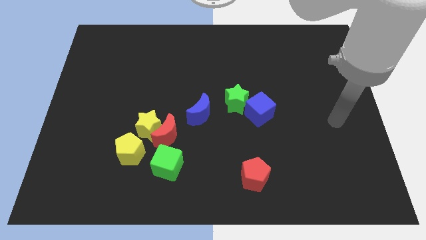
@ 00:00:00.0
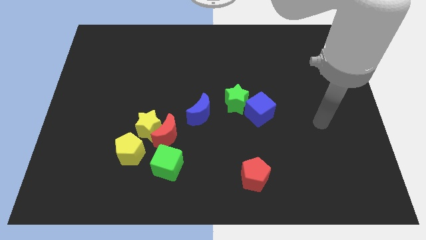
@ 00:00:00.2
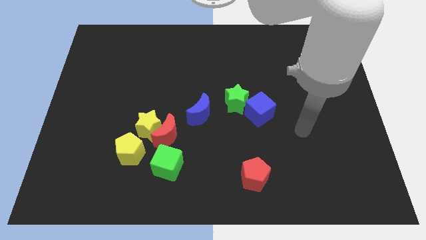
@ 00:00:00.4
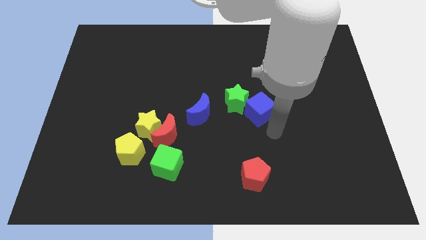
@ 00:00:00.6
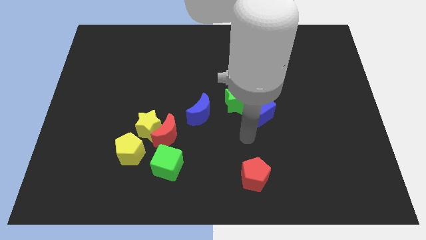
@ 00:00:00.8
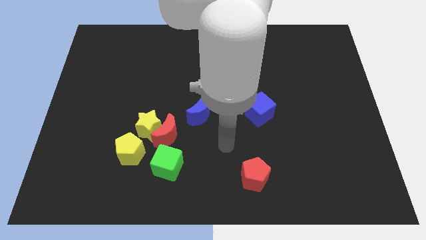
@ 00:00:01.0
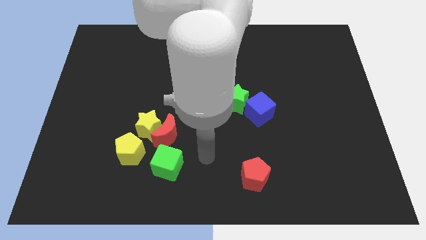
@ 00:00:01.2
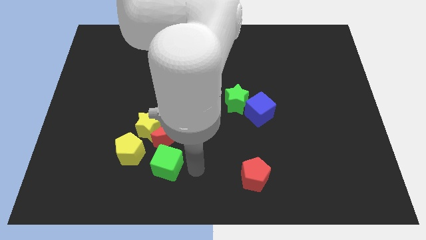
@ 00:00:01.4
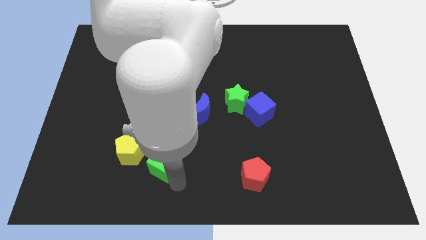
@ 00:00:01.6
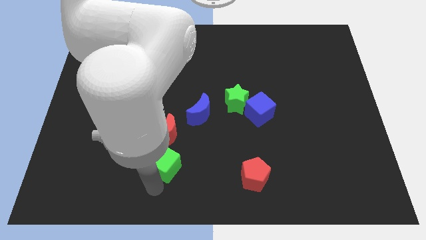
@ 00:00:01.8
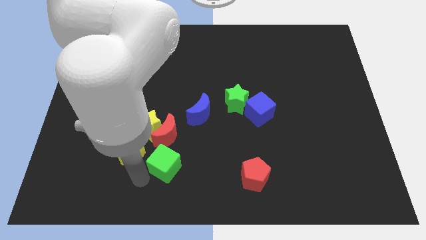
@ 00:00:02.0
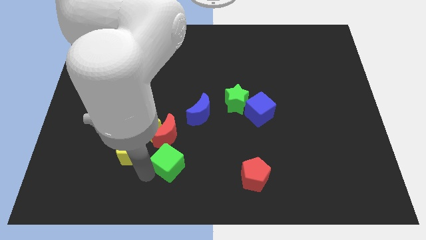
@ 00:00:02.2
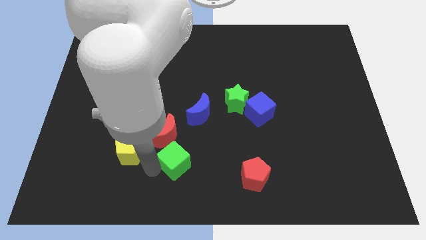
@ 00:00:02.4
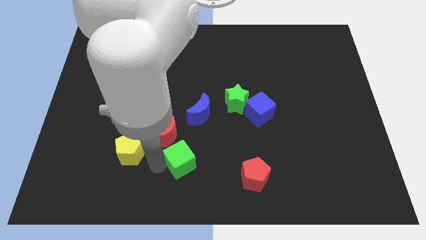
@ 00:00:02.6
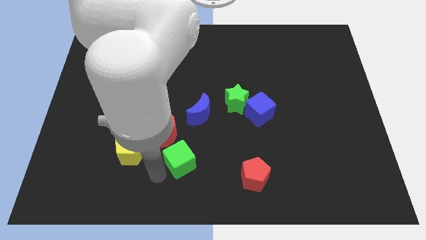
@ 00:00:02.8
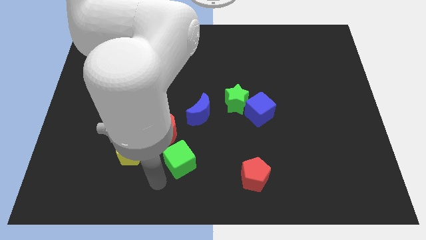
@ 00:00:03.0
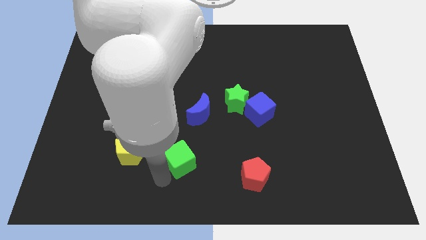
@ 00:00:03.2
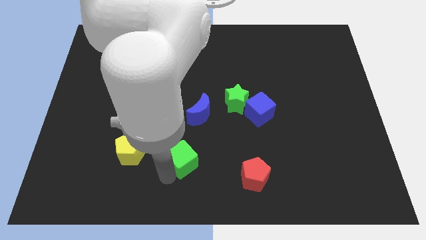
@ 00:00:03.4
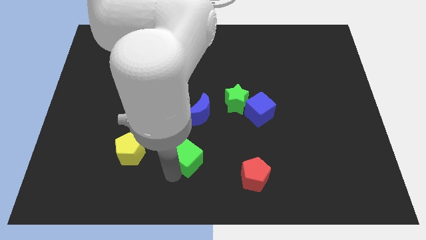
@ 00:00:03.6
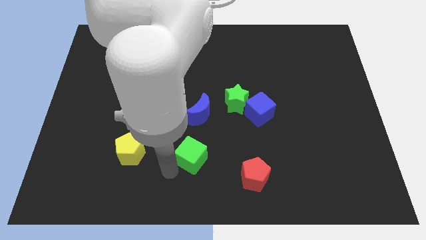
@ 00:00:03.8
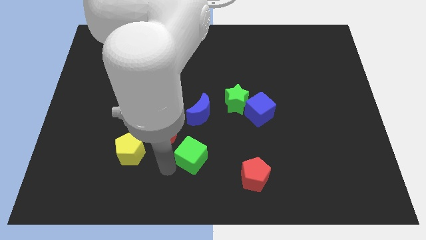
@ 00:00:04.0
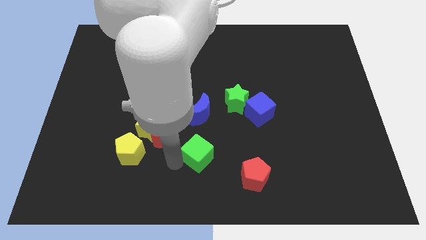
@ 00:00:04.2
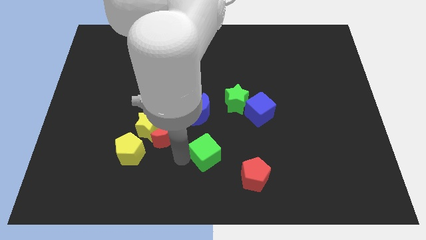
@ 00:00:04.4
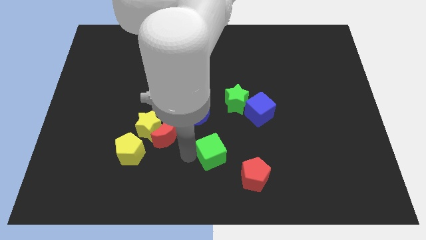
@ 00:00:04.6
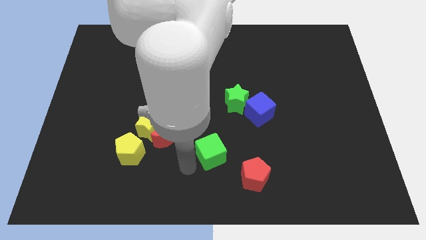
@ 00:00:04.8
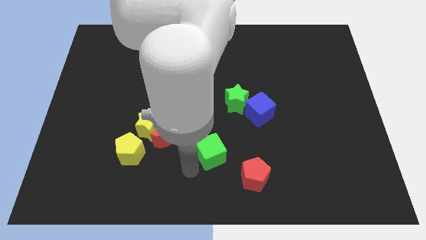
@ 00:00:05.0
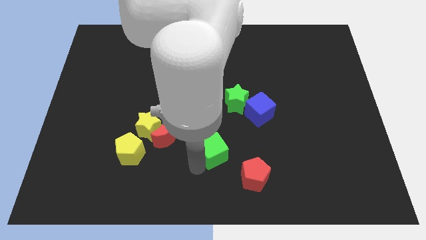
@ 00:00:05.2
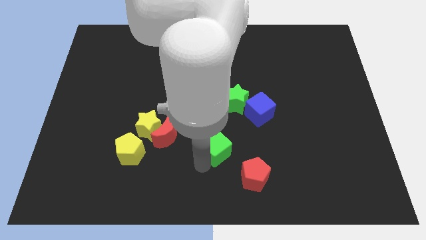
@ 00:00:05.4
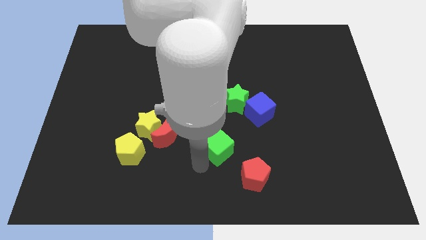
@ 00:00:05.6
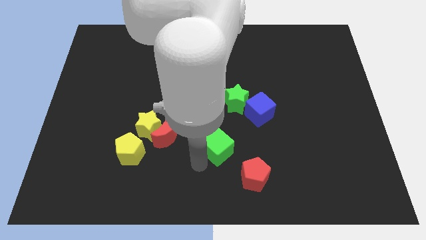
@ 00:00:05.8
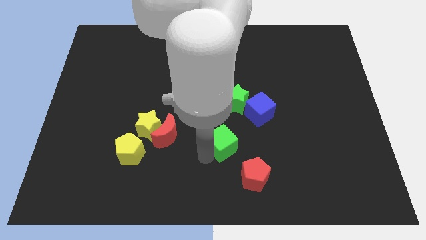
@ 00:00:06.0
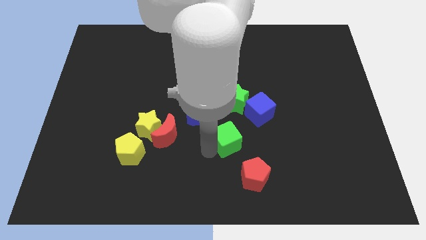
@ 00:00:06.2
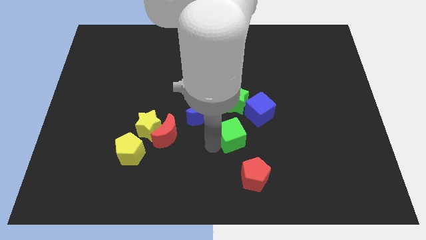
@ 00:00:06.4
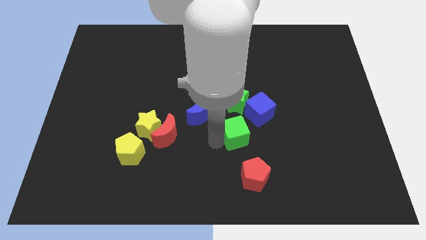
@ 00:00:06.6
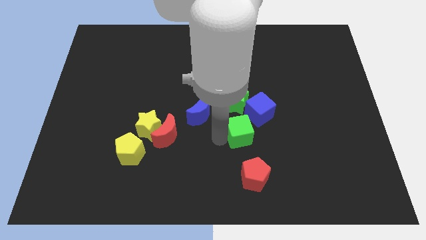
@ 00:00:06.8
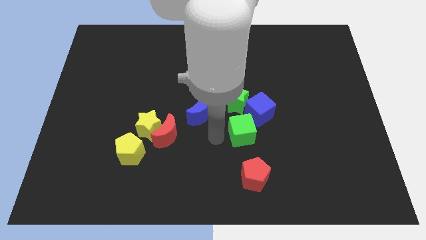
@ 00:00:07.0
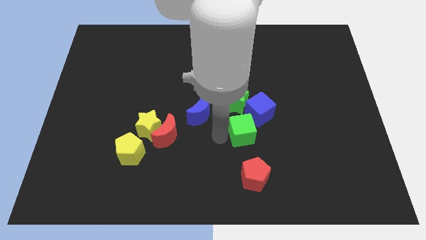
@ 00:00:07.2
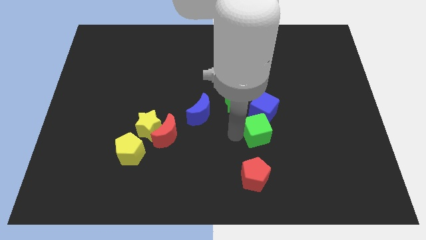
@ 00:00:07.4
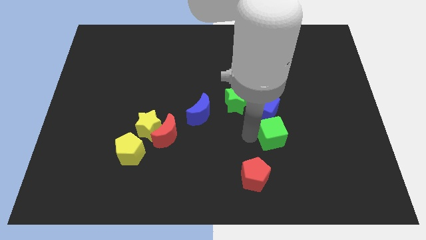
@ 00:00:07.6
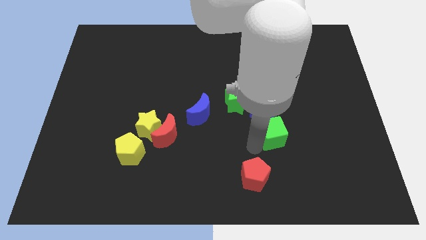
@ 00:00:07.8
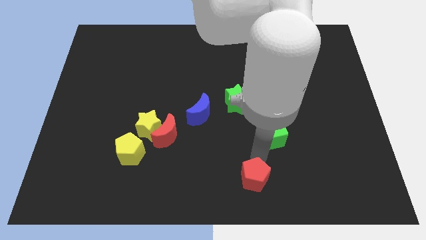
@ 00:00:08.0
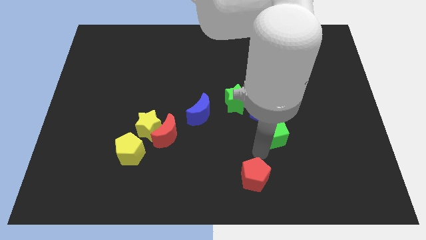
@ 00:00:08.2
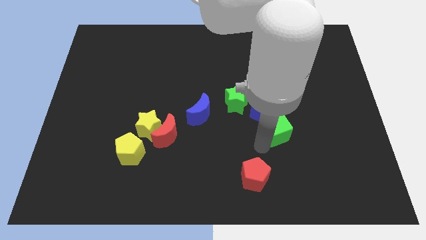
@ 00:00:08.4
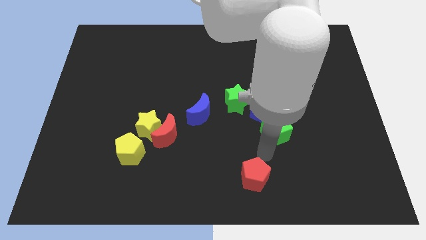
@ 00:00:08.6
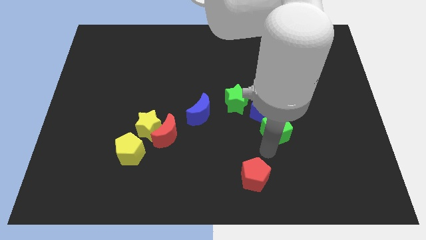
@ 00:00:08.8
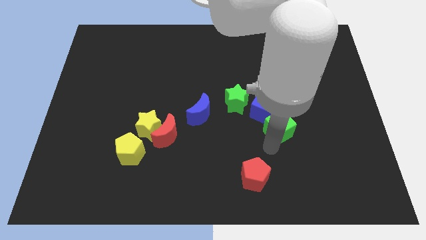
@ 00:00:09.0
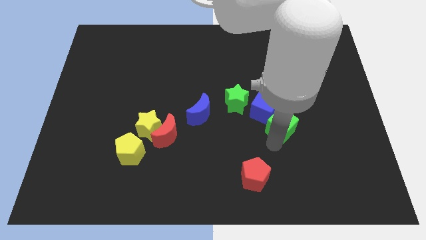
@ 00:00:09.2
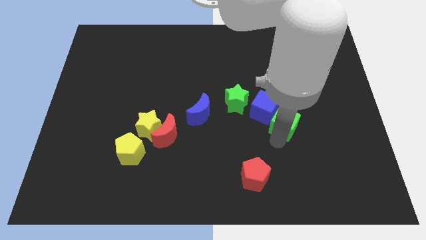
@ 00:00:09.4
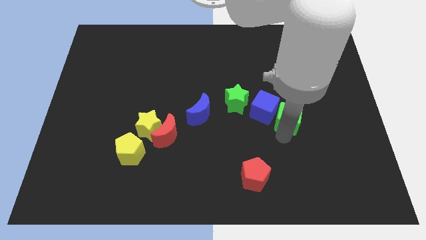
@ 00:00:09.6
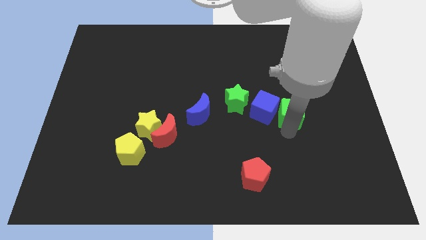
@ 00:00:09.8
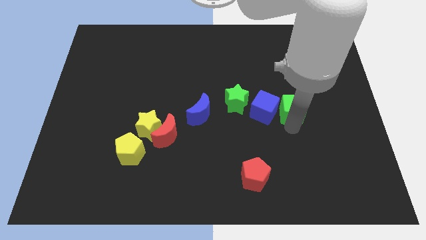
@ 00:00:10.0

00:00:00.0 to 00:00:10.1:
push the green cube to the top right side of the blue cube

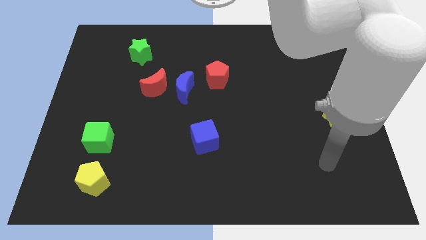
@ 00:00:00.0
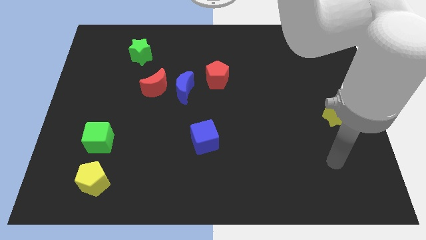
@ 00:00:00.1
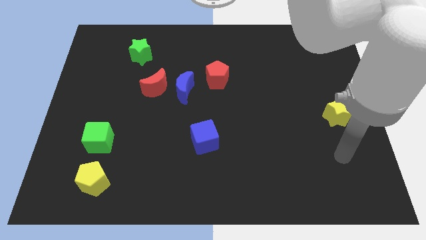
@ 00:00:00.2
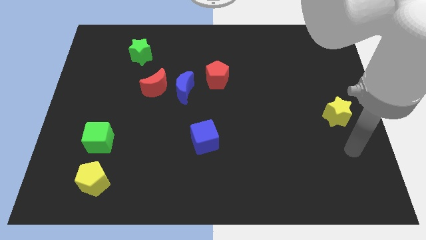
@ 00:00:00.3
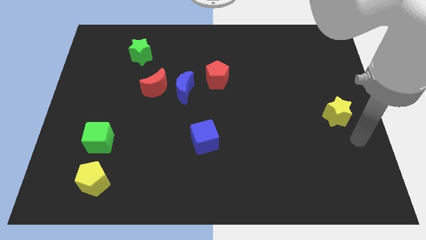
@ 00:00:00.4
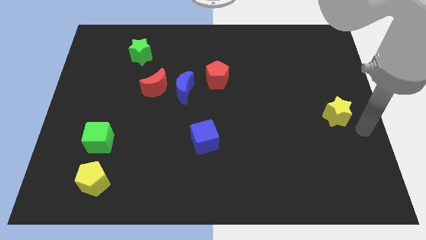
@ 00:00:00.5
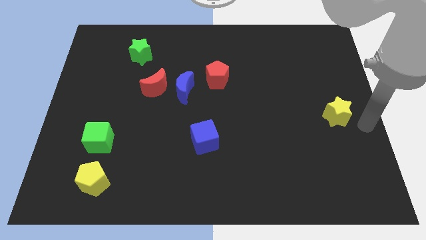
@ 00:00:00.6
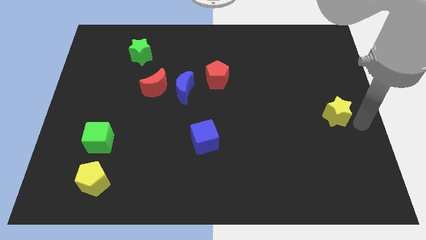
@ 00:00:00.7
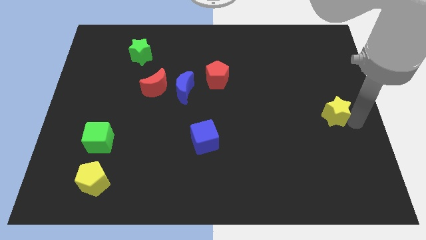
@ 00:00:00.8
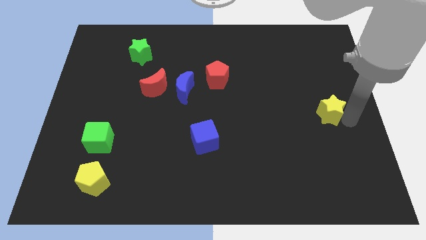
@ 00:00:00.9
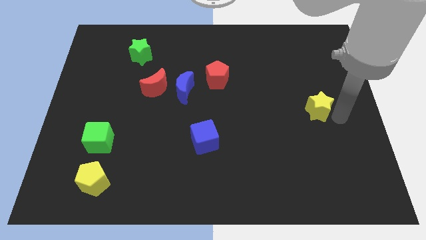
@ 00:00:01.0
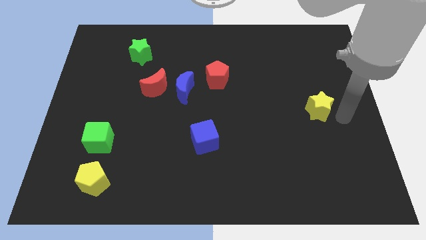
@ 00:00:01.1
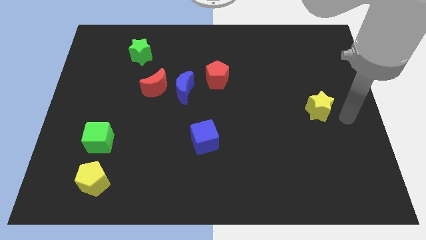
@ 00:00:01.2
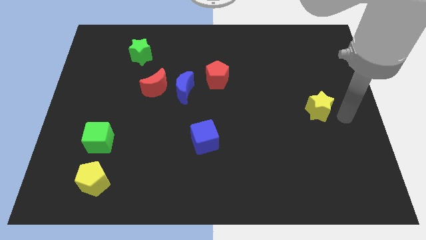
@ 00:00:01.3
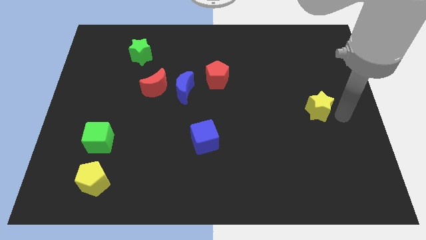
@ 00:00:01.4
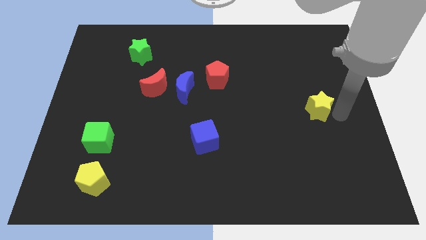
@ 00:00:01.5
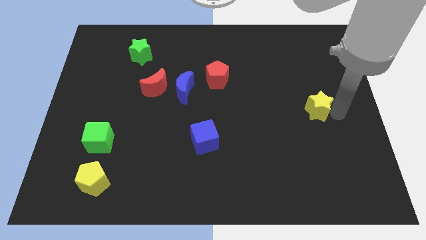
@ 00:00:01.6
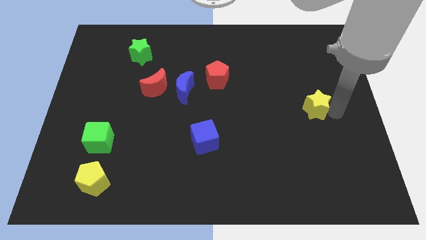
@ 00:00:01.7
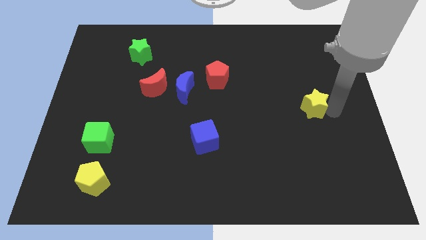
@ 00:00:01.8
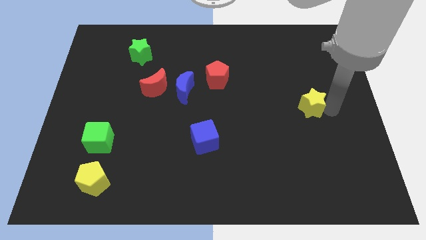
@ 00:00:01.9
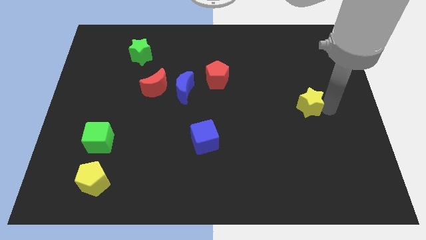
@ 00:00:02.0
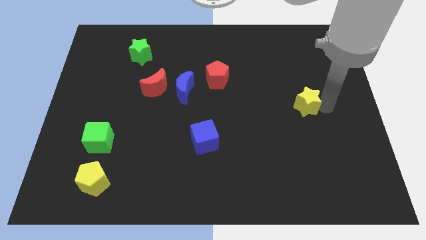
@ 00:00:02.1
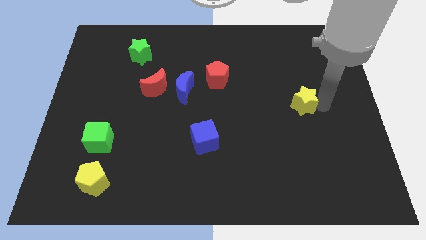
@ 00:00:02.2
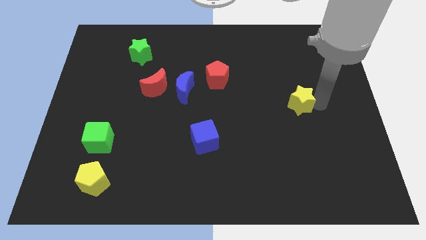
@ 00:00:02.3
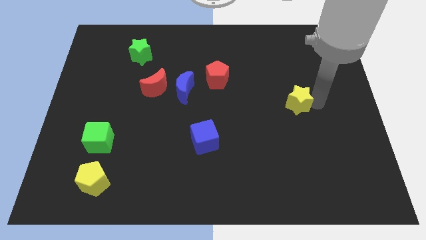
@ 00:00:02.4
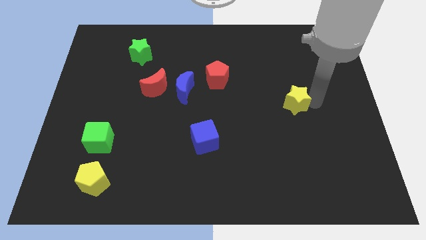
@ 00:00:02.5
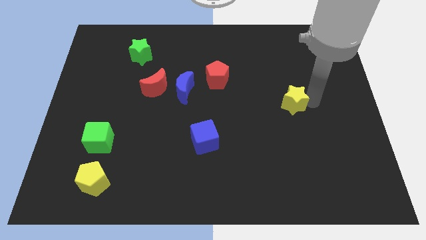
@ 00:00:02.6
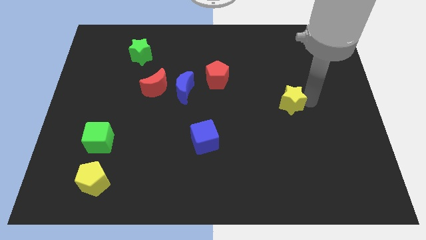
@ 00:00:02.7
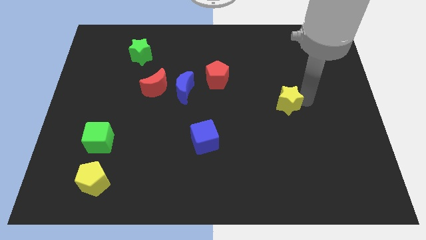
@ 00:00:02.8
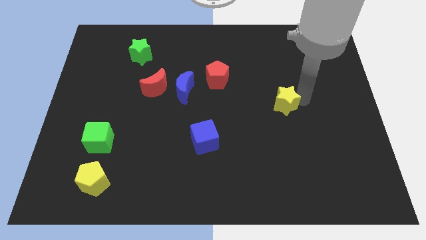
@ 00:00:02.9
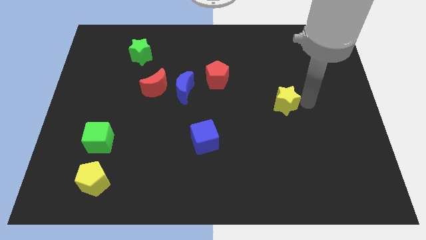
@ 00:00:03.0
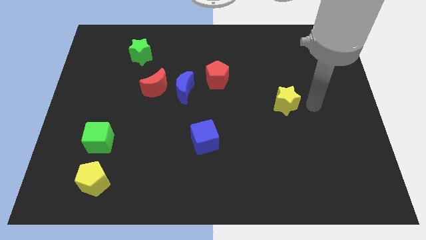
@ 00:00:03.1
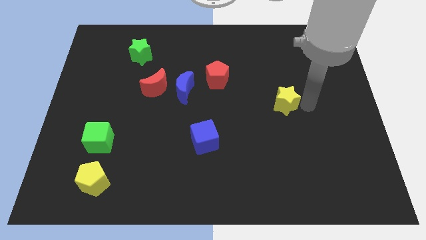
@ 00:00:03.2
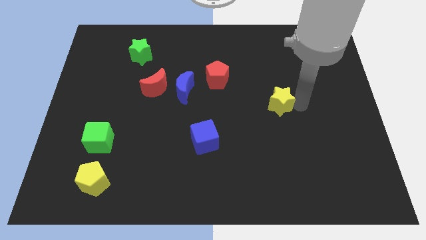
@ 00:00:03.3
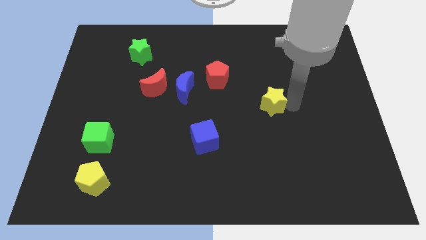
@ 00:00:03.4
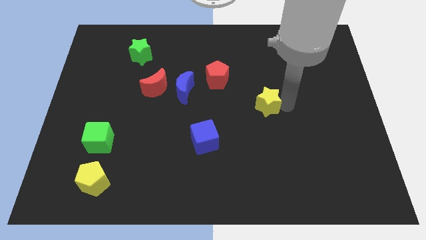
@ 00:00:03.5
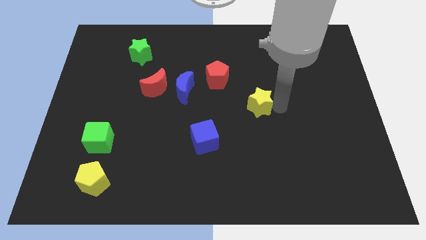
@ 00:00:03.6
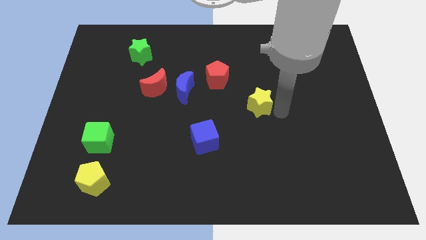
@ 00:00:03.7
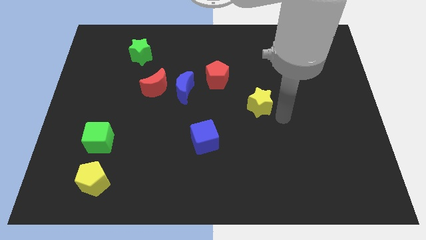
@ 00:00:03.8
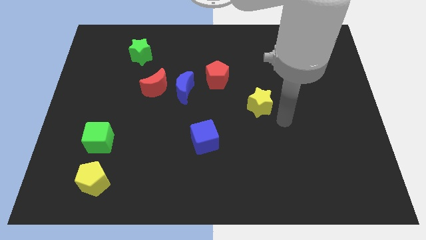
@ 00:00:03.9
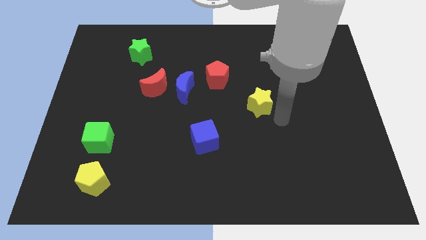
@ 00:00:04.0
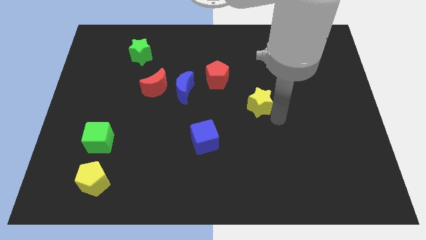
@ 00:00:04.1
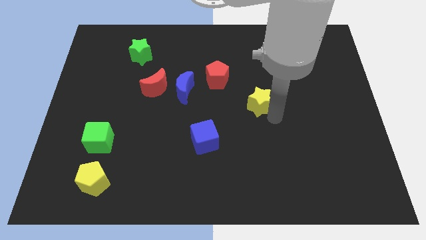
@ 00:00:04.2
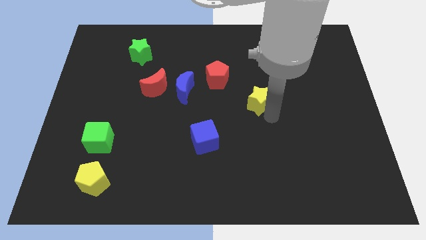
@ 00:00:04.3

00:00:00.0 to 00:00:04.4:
slide the yellow star diagonally down and to the right of the red pentagon
